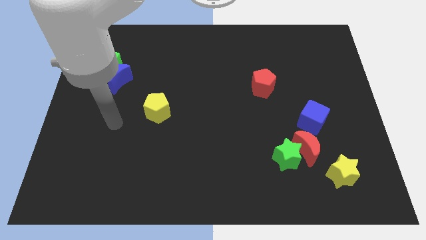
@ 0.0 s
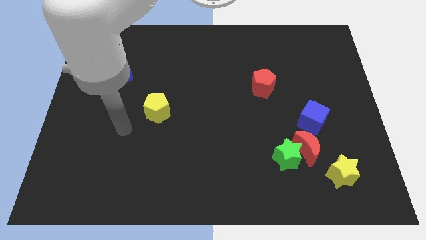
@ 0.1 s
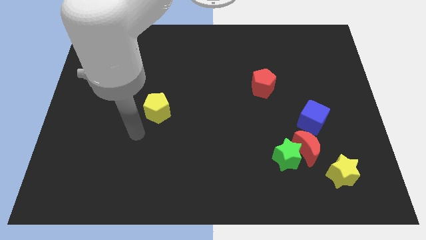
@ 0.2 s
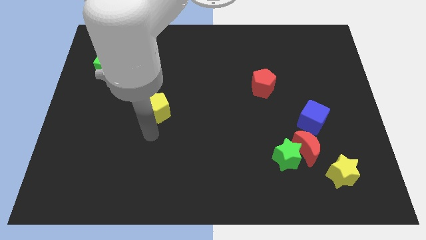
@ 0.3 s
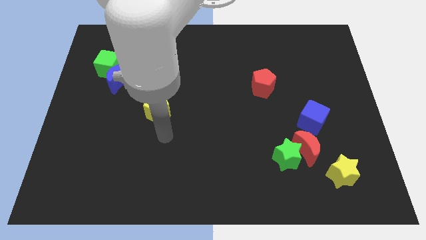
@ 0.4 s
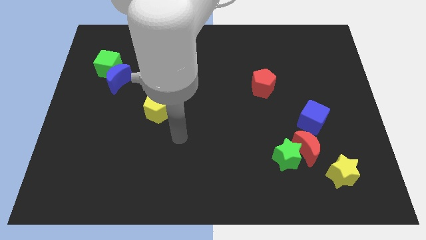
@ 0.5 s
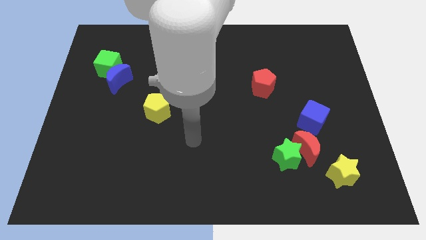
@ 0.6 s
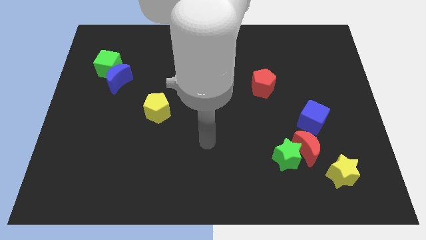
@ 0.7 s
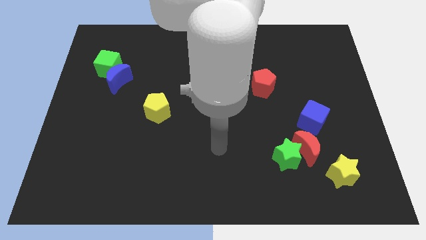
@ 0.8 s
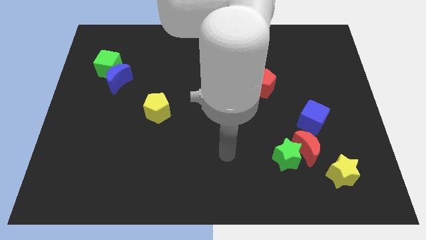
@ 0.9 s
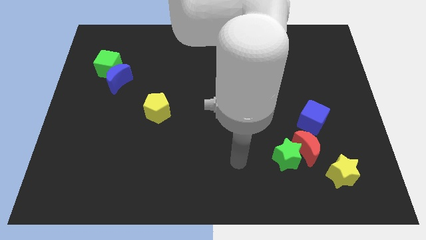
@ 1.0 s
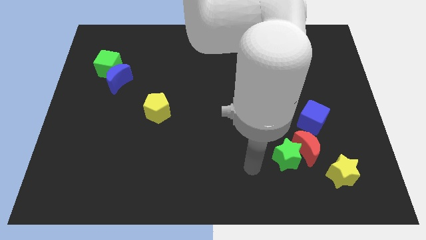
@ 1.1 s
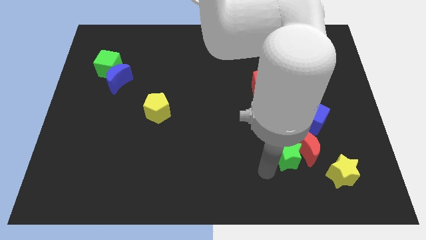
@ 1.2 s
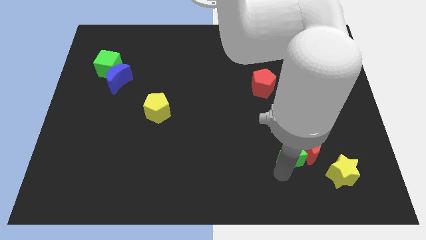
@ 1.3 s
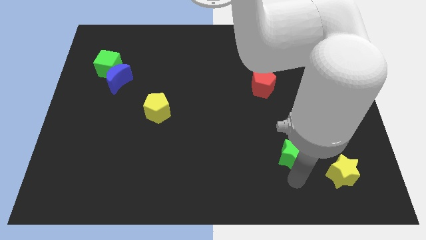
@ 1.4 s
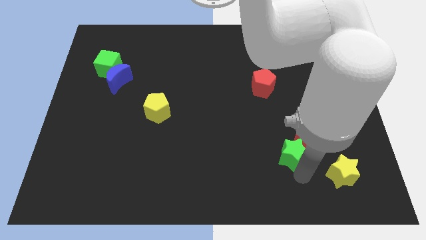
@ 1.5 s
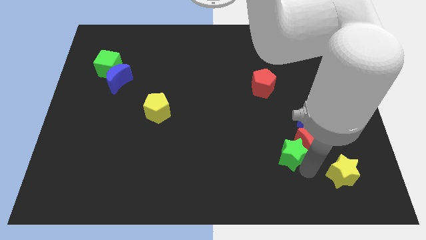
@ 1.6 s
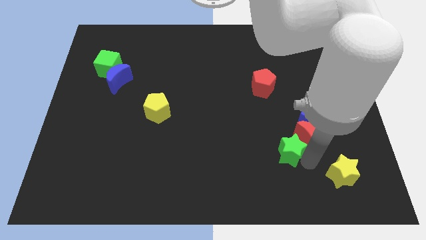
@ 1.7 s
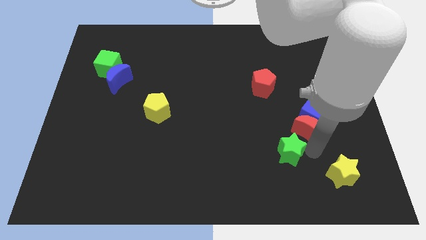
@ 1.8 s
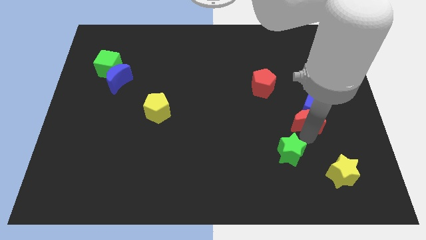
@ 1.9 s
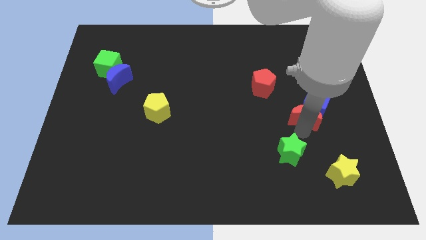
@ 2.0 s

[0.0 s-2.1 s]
separate the green star from the red moon

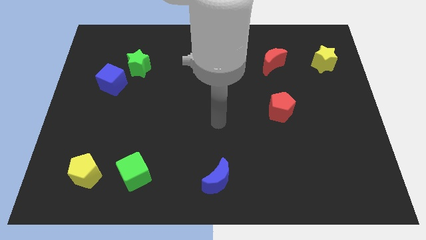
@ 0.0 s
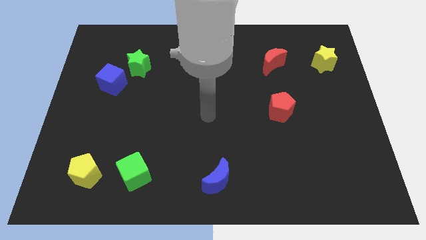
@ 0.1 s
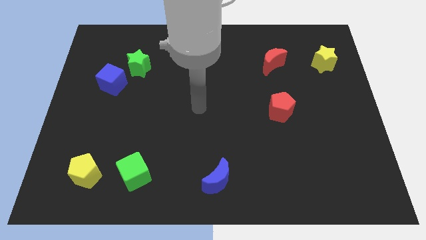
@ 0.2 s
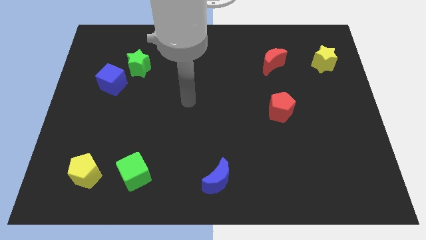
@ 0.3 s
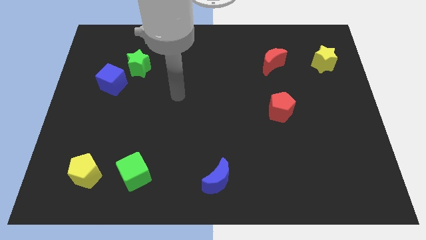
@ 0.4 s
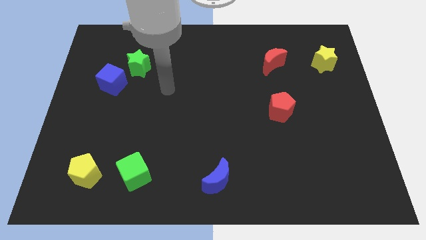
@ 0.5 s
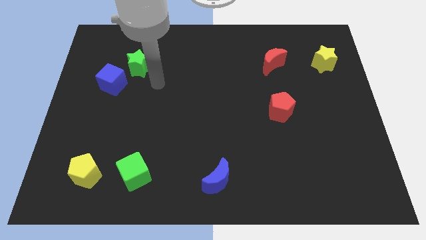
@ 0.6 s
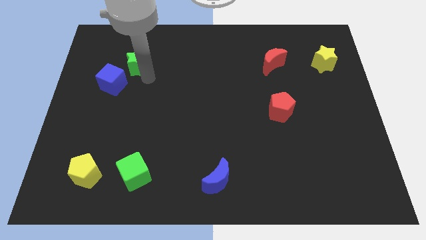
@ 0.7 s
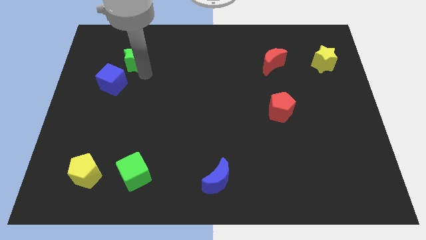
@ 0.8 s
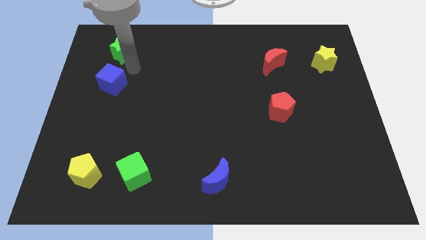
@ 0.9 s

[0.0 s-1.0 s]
pull the blue cube apart from the green star

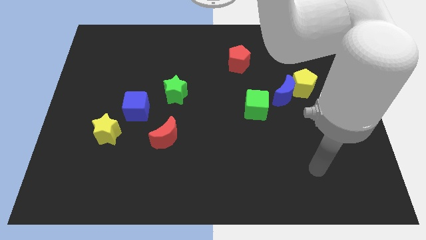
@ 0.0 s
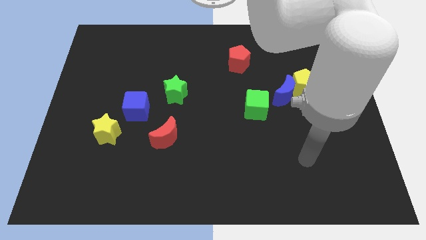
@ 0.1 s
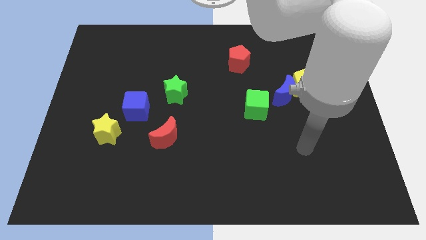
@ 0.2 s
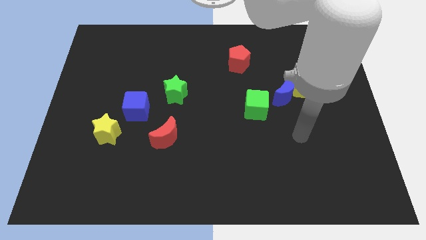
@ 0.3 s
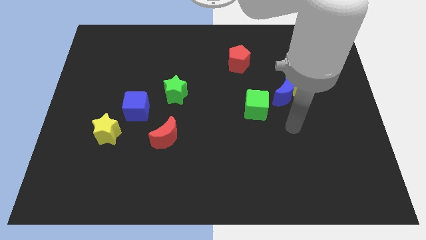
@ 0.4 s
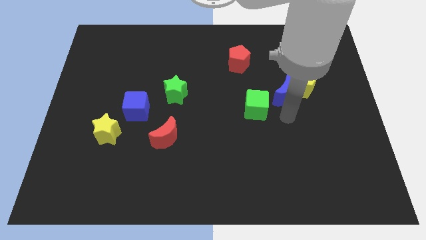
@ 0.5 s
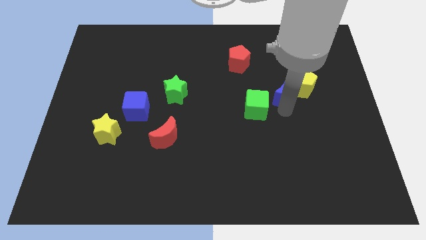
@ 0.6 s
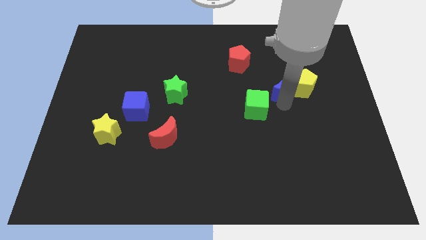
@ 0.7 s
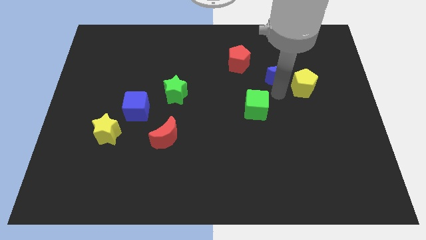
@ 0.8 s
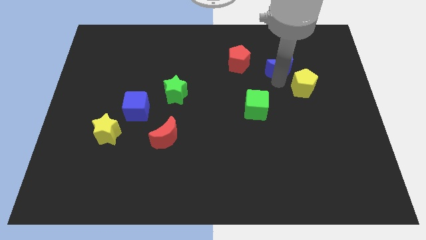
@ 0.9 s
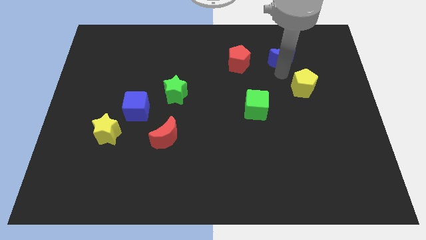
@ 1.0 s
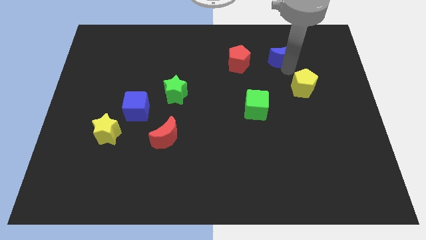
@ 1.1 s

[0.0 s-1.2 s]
separate the yellow pentagon from the blue moon

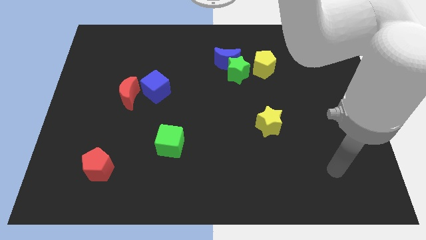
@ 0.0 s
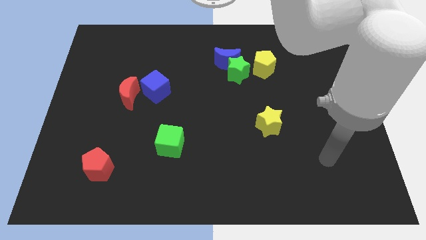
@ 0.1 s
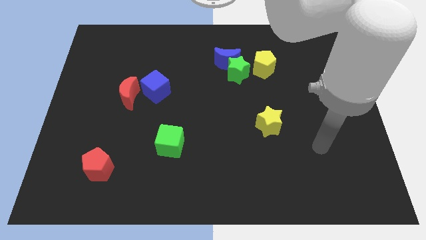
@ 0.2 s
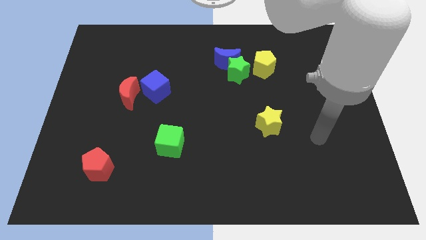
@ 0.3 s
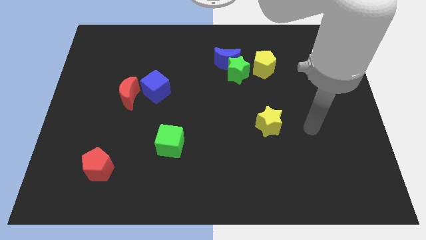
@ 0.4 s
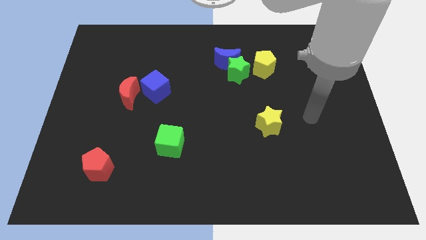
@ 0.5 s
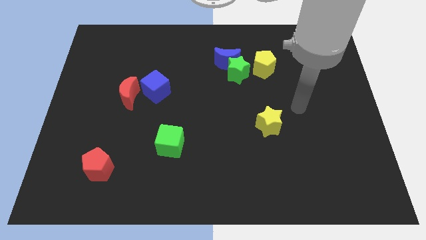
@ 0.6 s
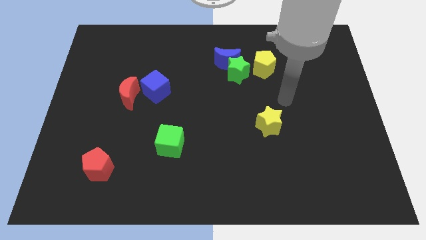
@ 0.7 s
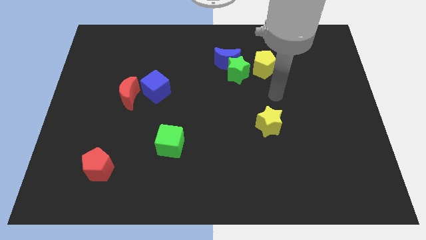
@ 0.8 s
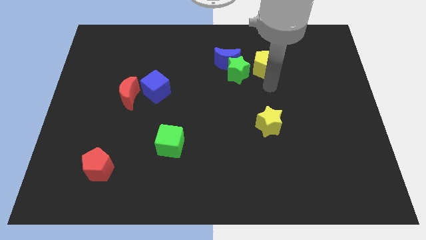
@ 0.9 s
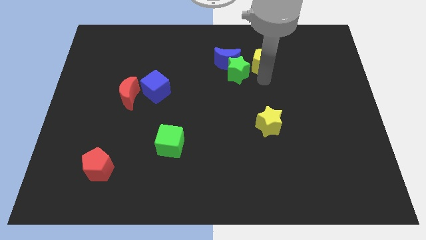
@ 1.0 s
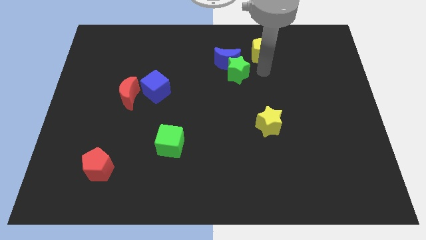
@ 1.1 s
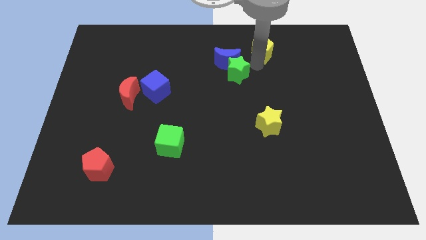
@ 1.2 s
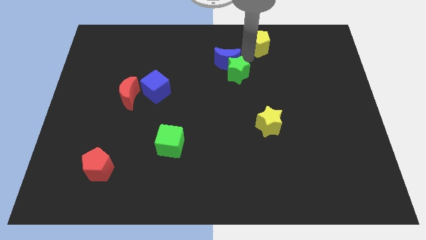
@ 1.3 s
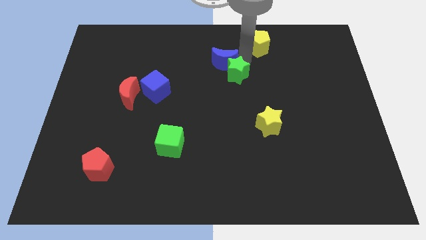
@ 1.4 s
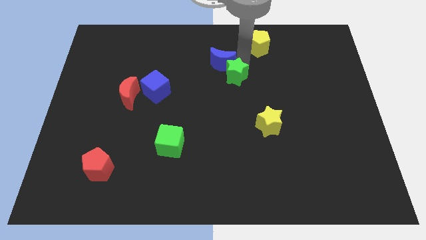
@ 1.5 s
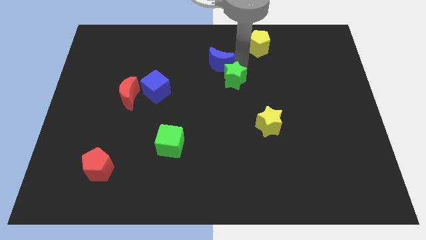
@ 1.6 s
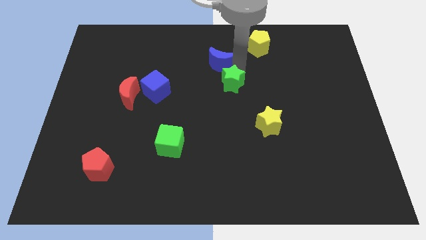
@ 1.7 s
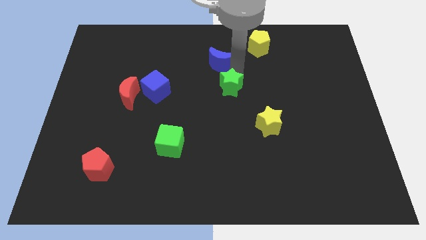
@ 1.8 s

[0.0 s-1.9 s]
move the green star away from the blue moon and yellow pentagon

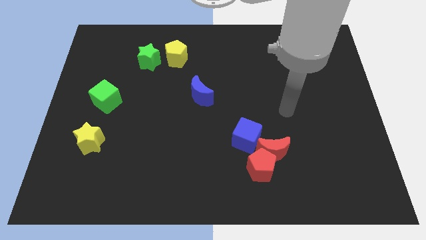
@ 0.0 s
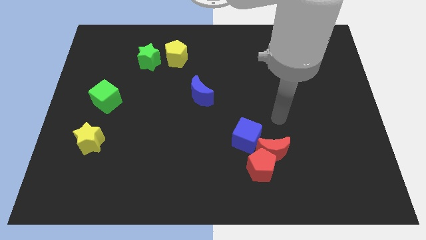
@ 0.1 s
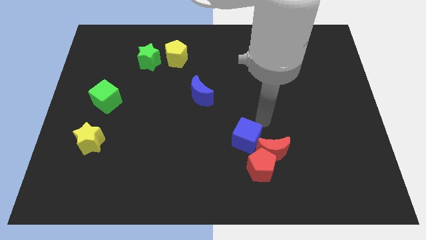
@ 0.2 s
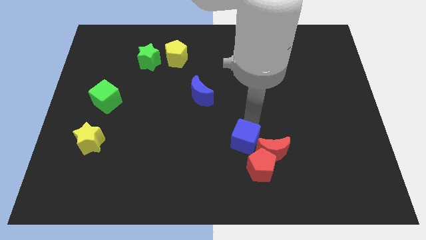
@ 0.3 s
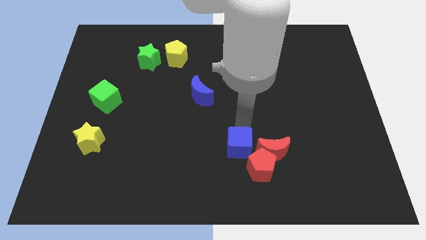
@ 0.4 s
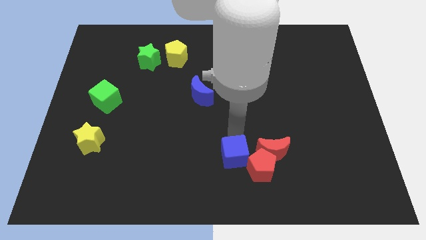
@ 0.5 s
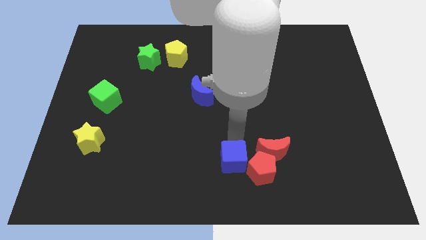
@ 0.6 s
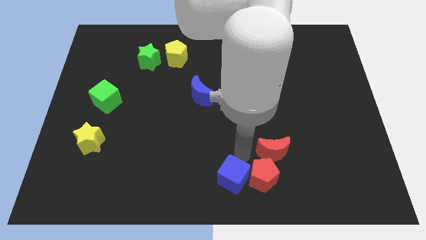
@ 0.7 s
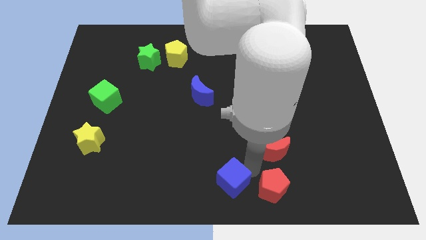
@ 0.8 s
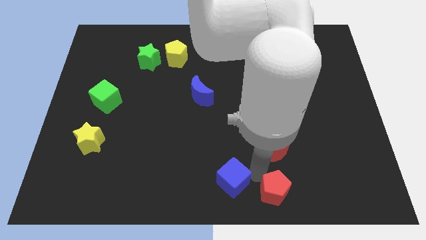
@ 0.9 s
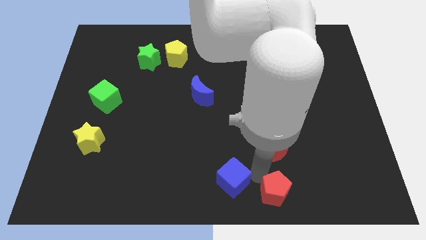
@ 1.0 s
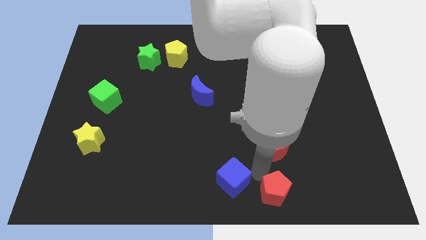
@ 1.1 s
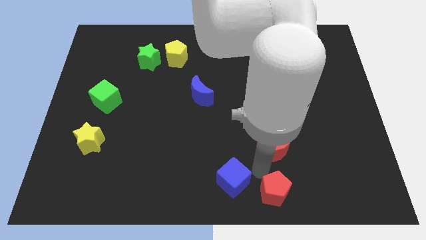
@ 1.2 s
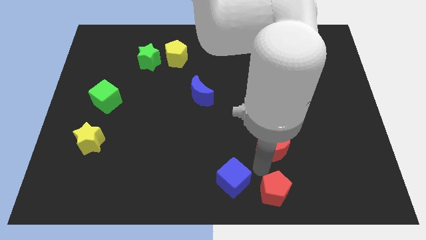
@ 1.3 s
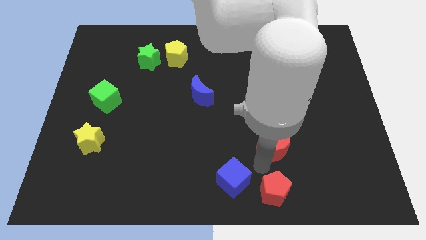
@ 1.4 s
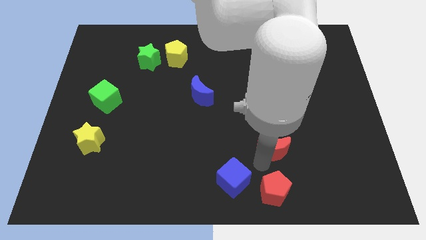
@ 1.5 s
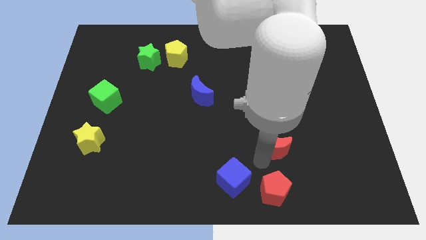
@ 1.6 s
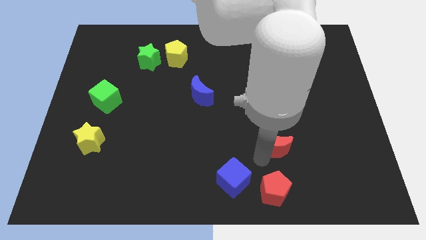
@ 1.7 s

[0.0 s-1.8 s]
move the red moon away from the red pentagon and blue cube

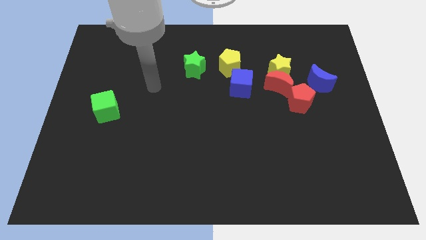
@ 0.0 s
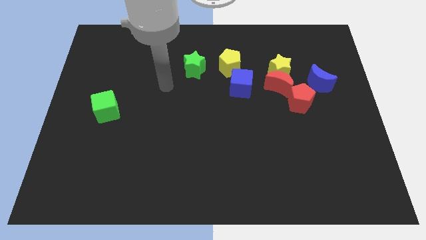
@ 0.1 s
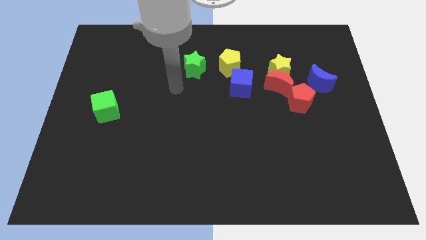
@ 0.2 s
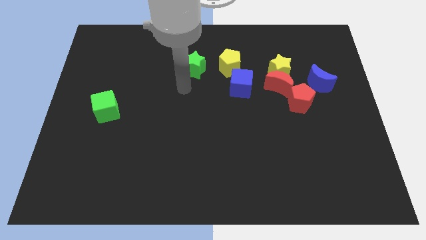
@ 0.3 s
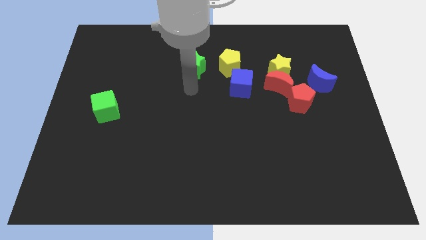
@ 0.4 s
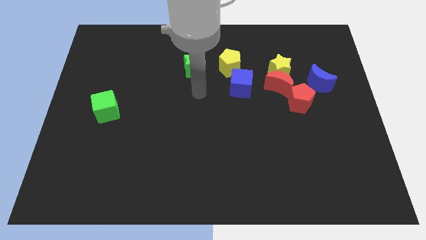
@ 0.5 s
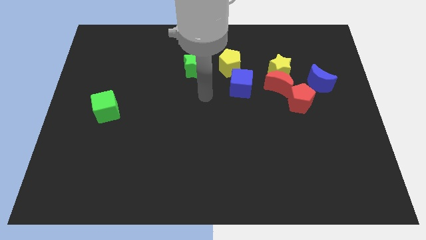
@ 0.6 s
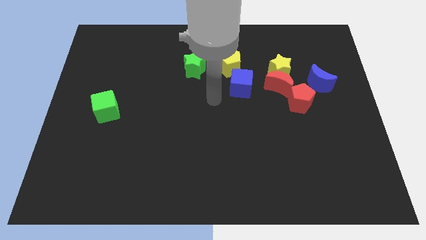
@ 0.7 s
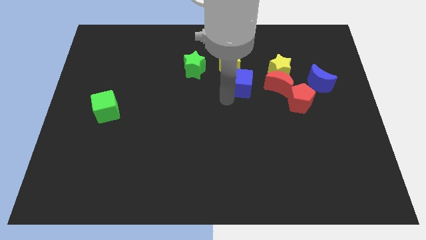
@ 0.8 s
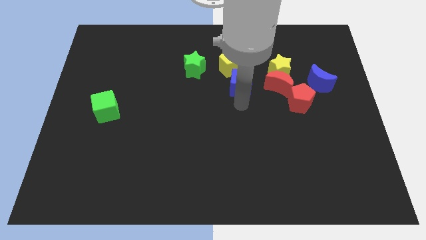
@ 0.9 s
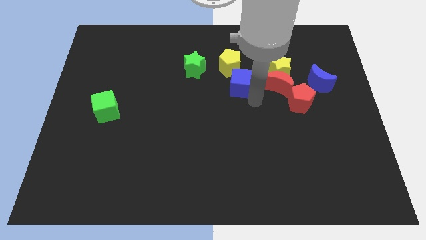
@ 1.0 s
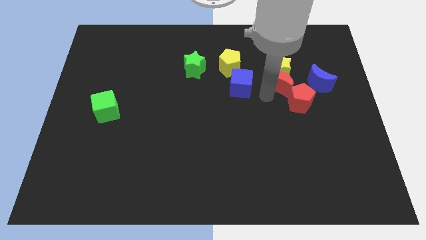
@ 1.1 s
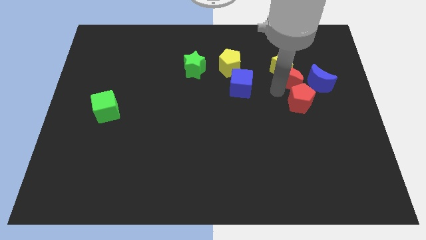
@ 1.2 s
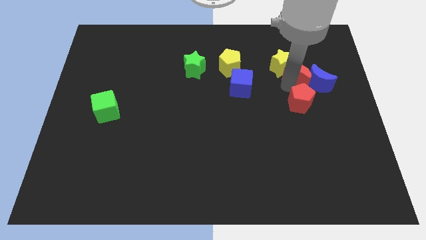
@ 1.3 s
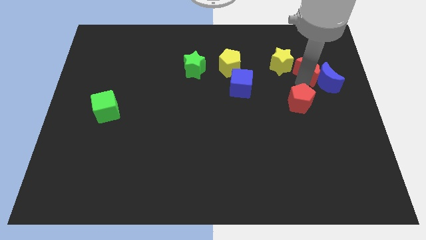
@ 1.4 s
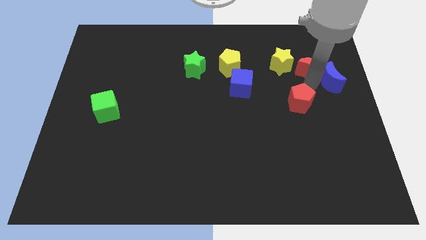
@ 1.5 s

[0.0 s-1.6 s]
move the red pentagon away from the red moon and blue moon
